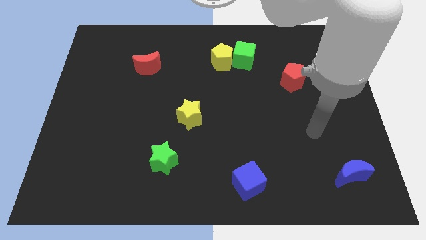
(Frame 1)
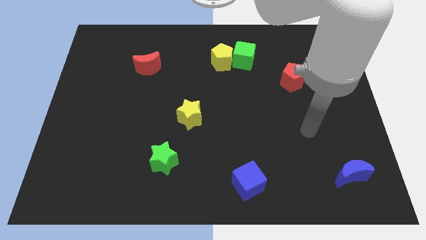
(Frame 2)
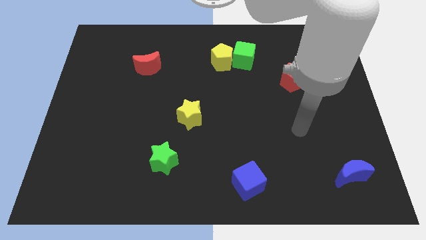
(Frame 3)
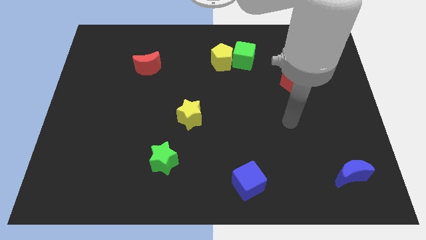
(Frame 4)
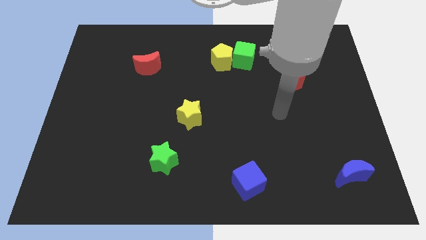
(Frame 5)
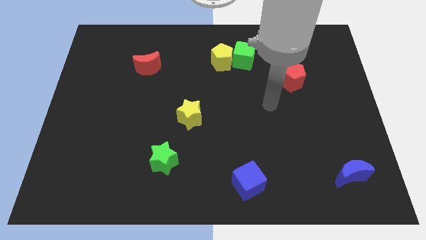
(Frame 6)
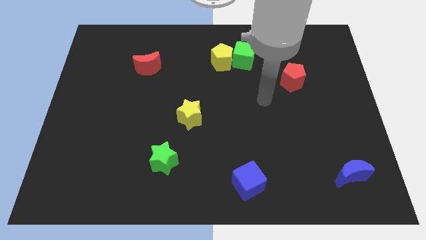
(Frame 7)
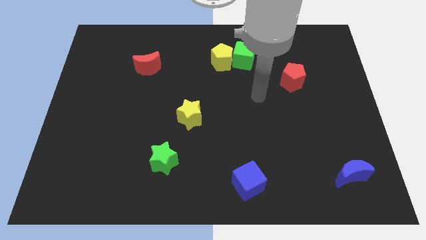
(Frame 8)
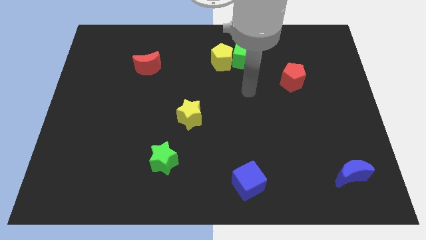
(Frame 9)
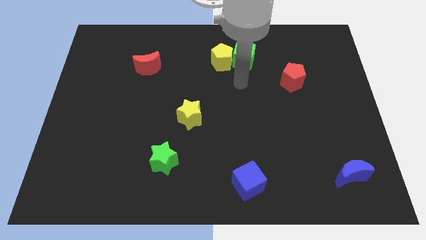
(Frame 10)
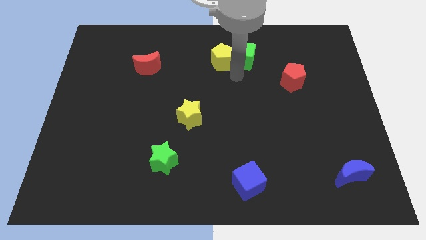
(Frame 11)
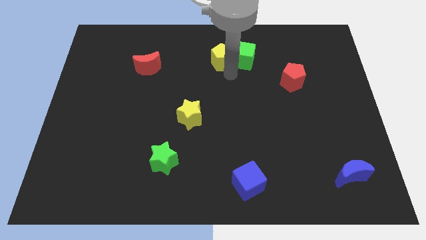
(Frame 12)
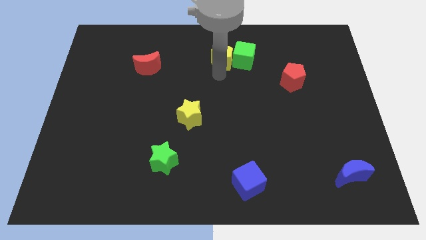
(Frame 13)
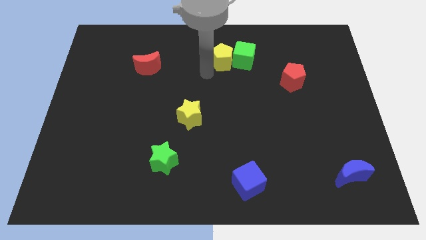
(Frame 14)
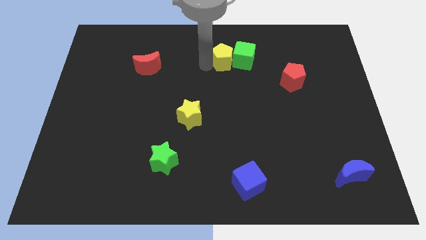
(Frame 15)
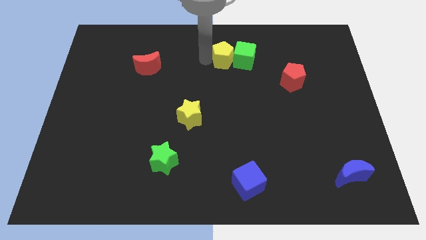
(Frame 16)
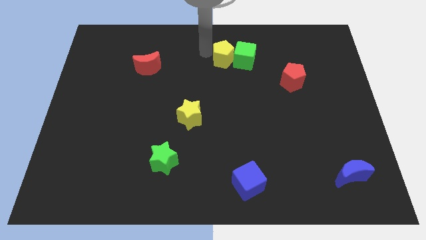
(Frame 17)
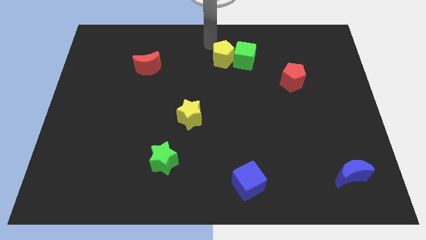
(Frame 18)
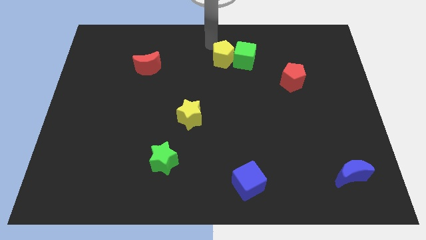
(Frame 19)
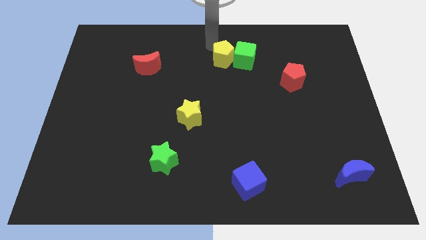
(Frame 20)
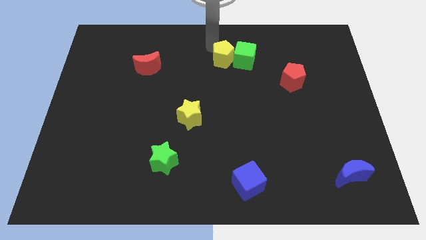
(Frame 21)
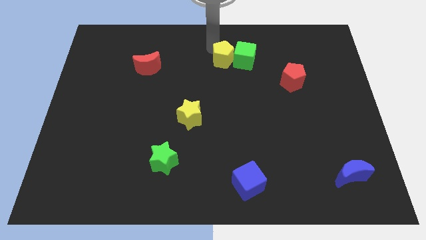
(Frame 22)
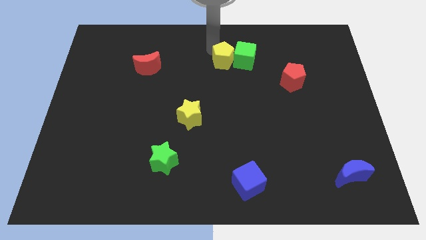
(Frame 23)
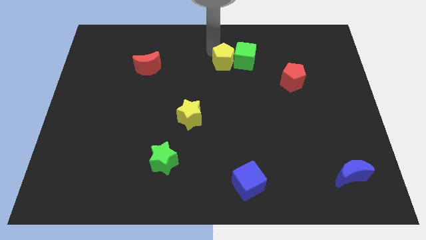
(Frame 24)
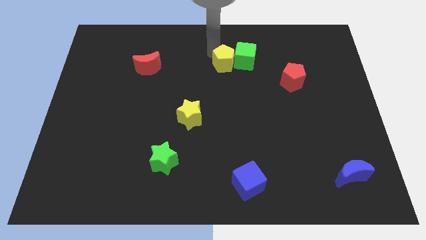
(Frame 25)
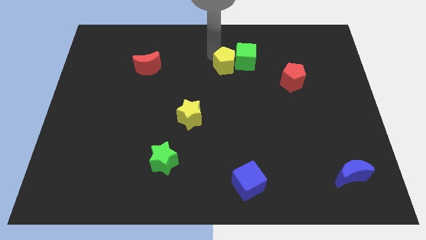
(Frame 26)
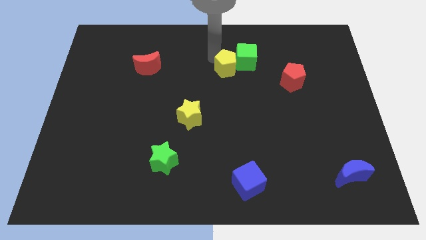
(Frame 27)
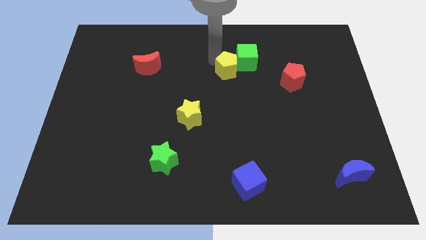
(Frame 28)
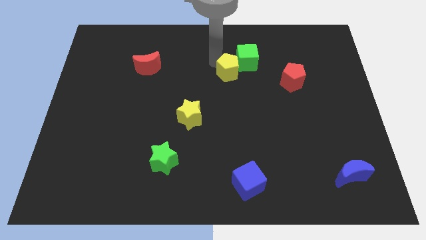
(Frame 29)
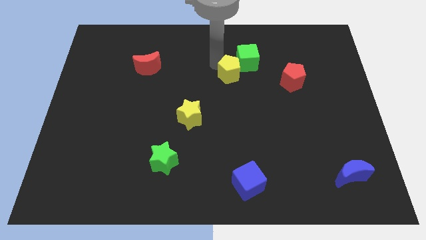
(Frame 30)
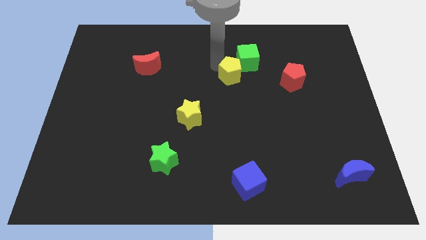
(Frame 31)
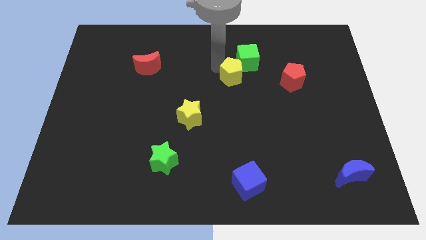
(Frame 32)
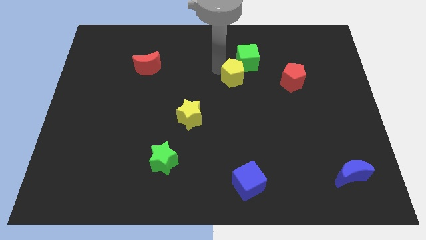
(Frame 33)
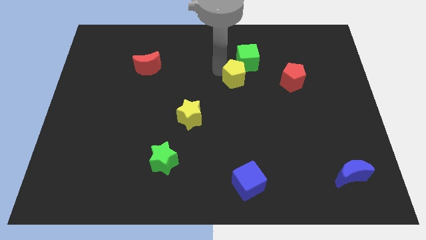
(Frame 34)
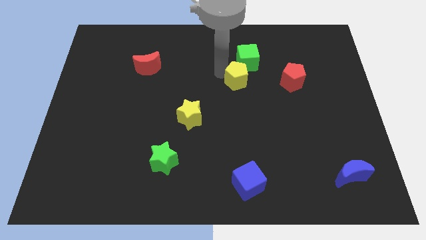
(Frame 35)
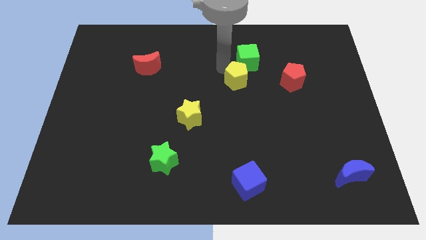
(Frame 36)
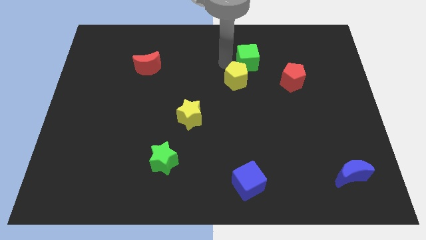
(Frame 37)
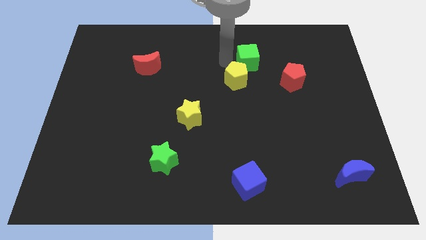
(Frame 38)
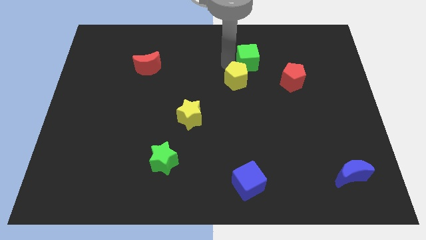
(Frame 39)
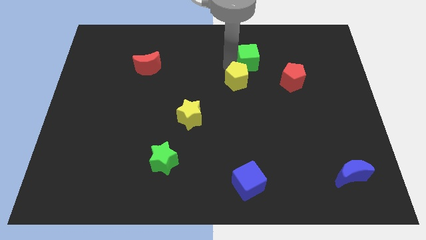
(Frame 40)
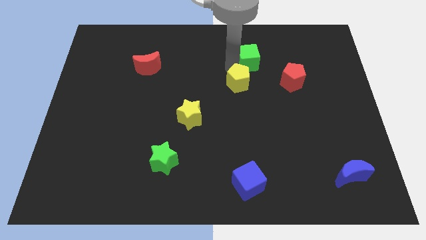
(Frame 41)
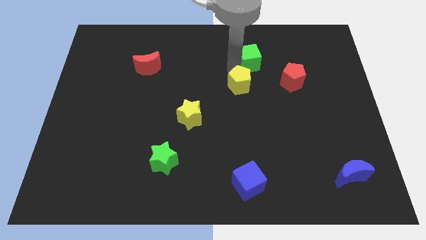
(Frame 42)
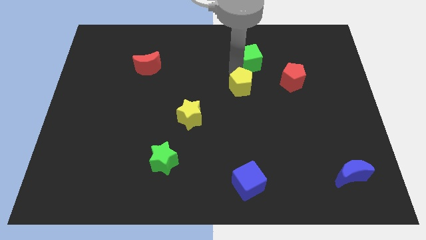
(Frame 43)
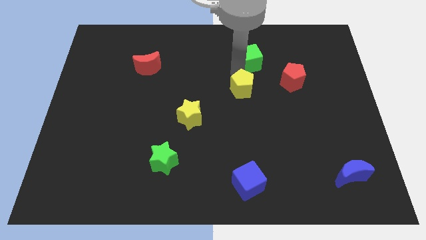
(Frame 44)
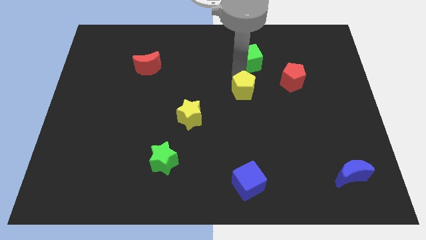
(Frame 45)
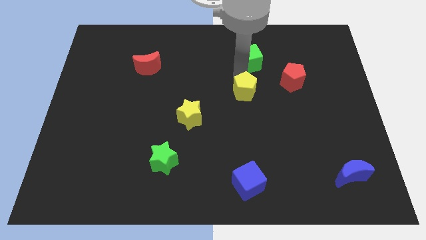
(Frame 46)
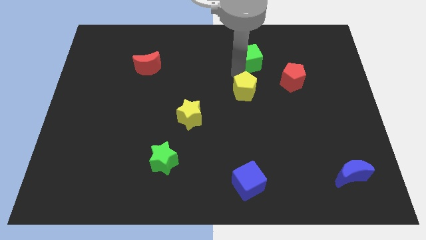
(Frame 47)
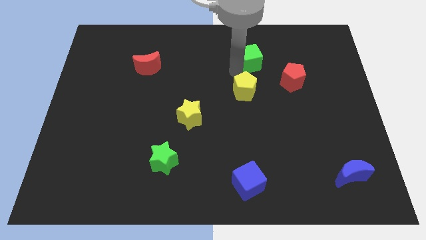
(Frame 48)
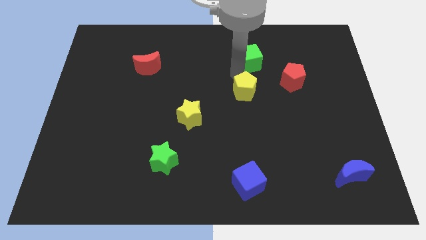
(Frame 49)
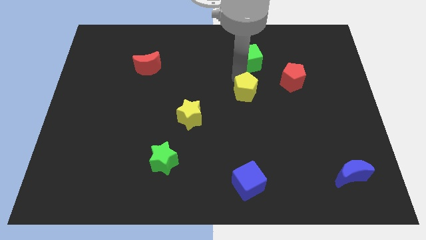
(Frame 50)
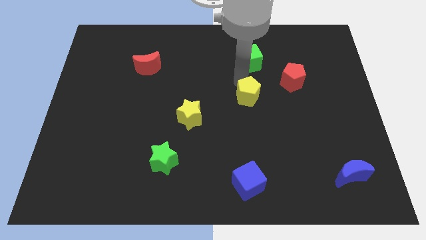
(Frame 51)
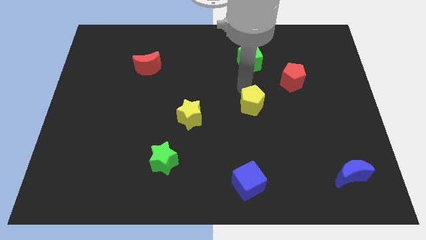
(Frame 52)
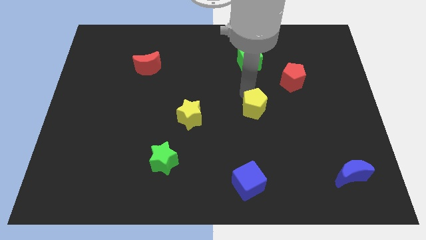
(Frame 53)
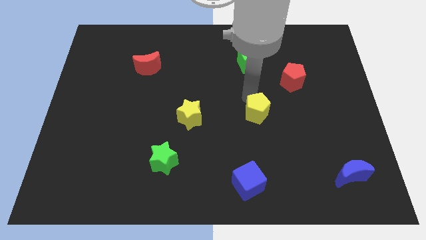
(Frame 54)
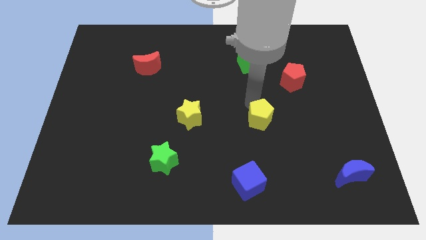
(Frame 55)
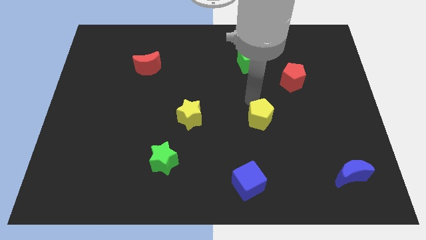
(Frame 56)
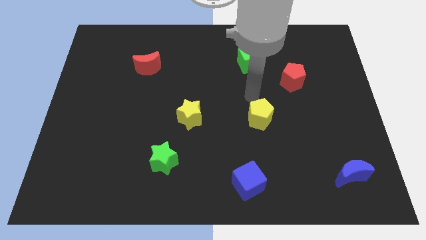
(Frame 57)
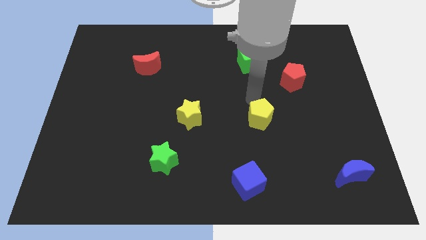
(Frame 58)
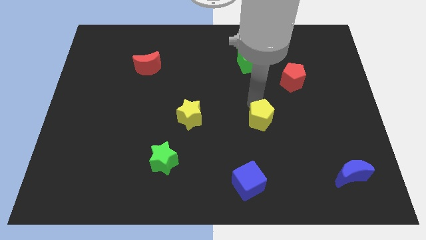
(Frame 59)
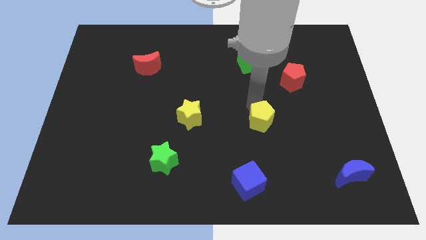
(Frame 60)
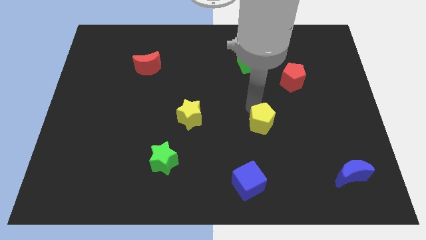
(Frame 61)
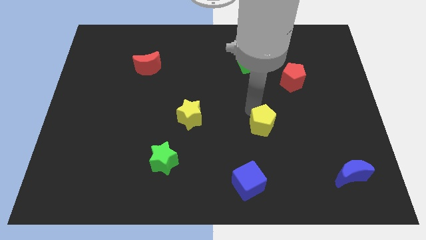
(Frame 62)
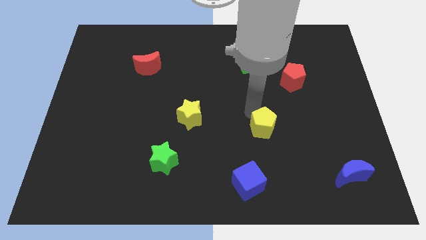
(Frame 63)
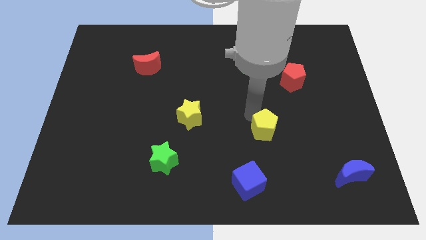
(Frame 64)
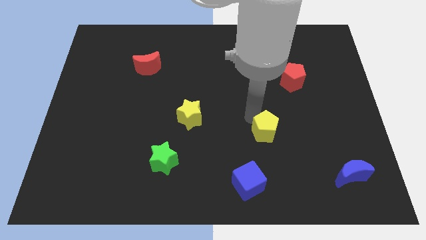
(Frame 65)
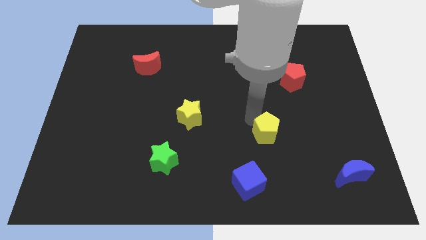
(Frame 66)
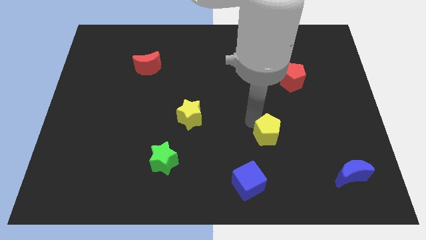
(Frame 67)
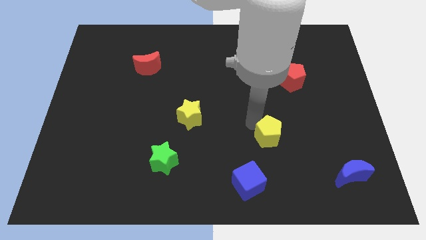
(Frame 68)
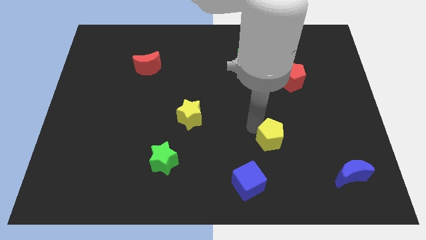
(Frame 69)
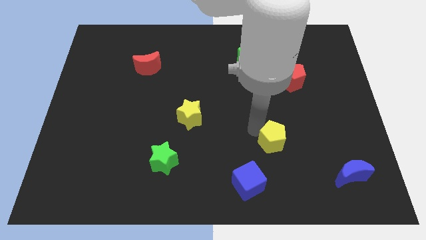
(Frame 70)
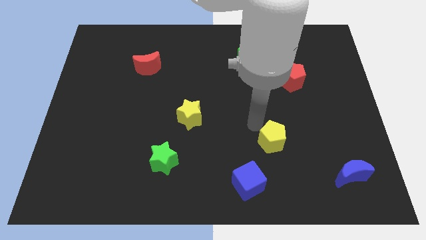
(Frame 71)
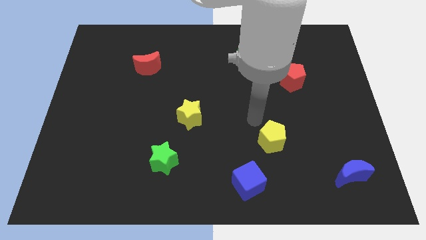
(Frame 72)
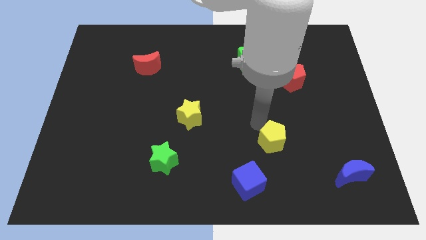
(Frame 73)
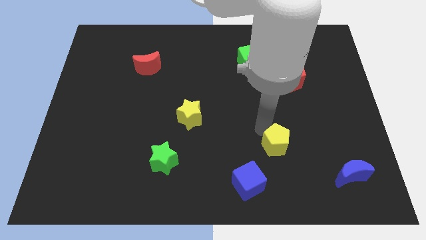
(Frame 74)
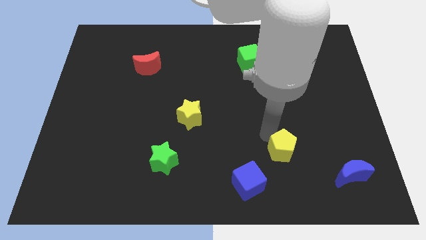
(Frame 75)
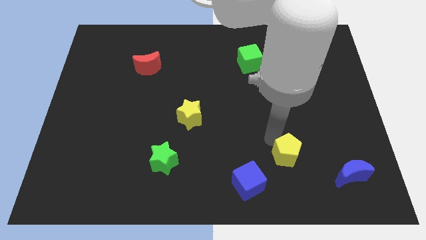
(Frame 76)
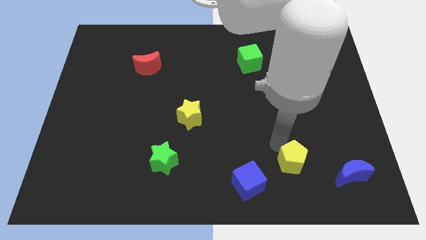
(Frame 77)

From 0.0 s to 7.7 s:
put the yellow pentagon to the left of the blue moon
